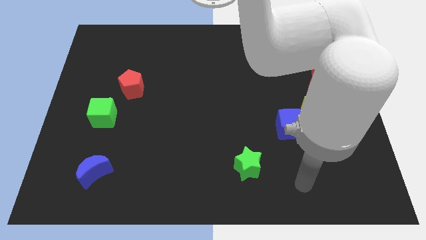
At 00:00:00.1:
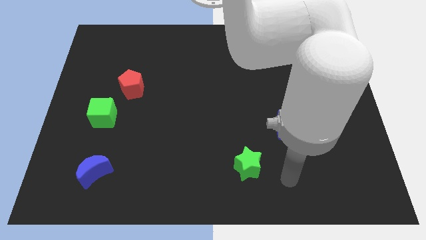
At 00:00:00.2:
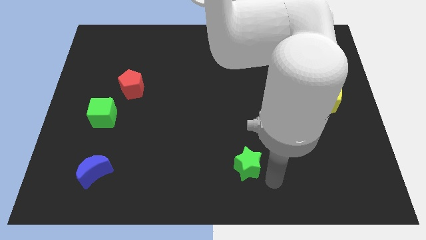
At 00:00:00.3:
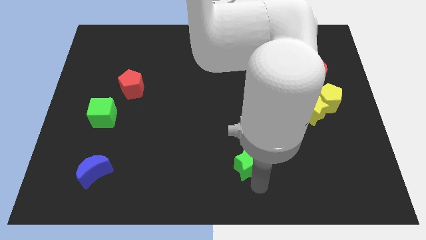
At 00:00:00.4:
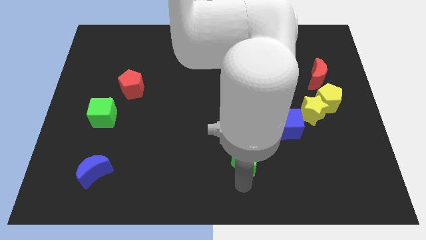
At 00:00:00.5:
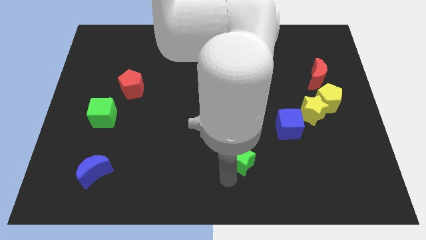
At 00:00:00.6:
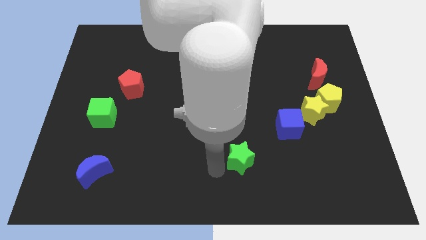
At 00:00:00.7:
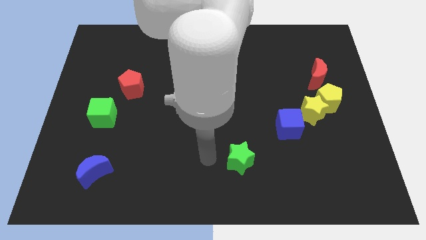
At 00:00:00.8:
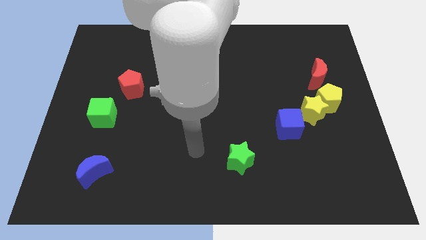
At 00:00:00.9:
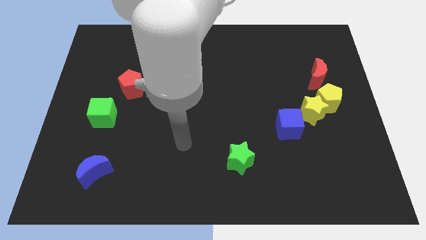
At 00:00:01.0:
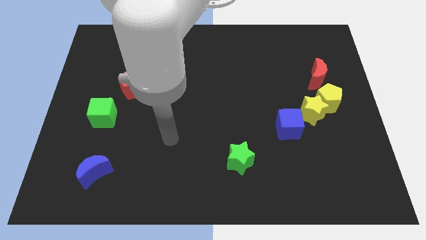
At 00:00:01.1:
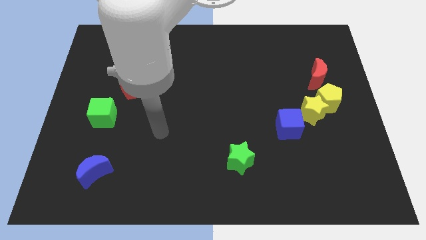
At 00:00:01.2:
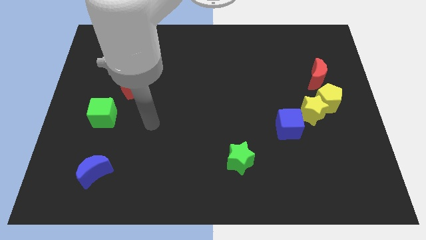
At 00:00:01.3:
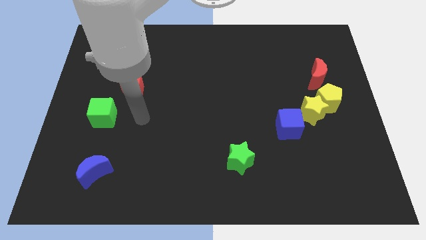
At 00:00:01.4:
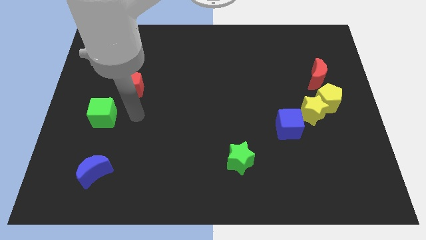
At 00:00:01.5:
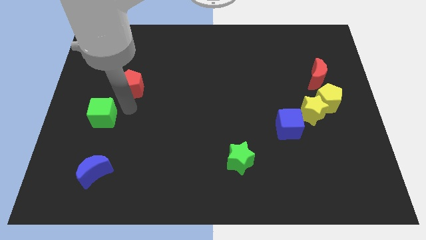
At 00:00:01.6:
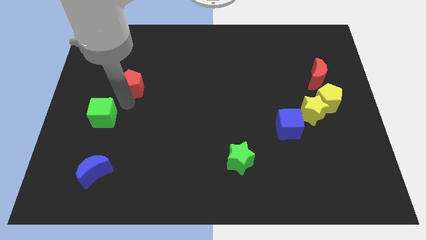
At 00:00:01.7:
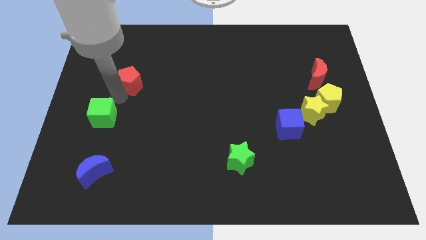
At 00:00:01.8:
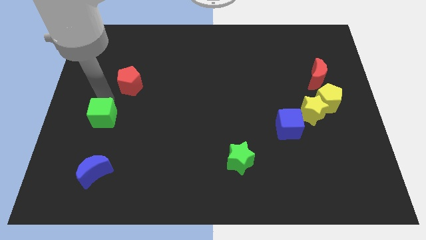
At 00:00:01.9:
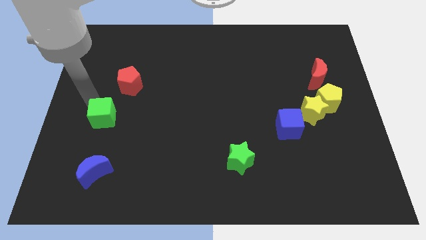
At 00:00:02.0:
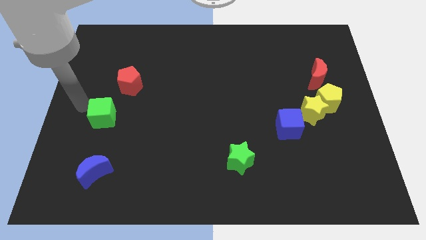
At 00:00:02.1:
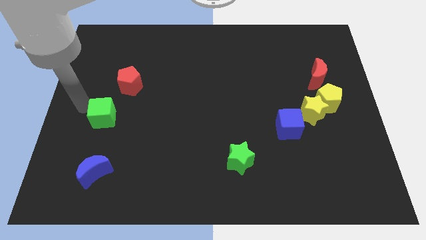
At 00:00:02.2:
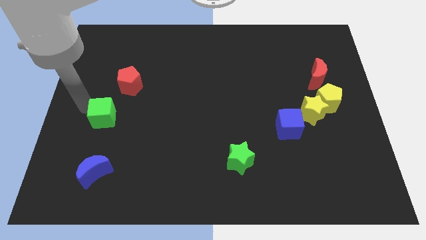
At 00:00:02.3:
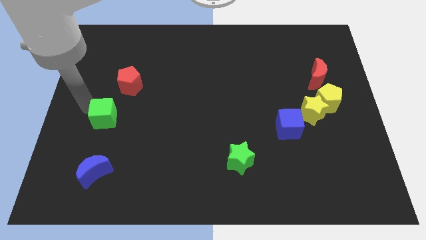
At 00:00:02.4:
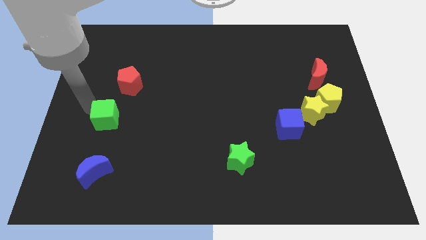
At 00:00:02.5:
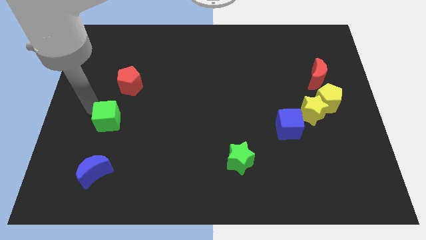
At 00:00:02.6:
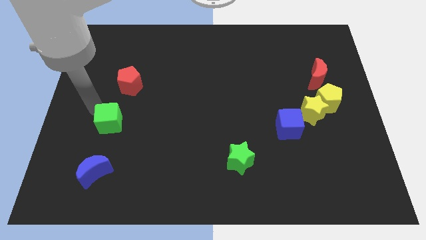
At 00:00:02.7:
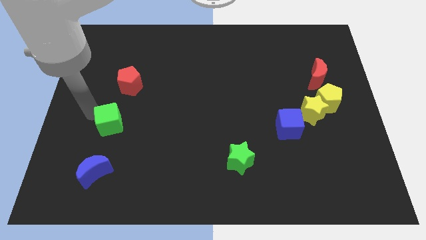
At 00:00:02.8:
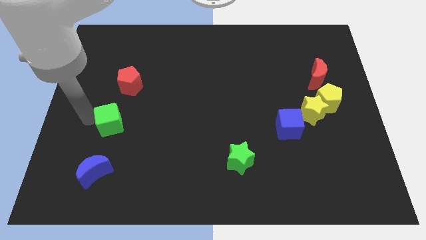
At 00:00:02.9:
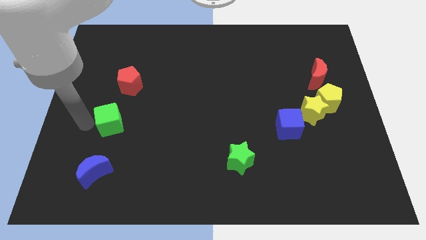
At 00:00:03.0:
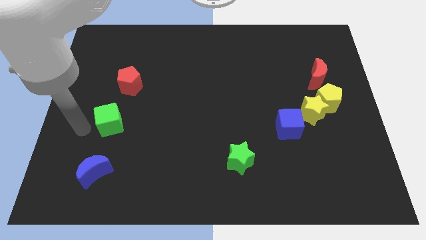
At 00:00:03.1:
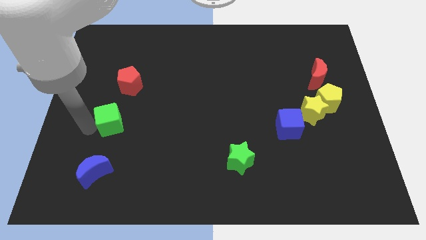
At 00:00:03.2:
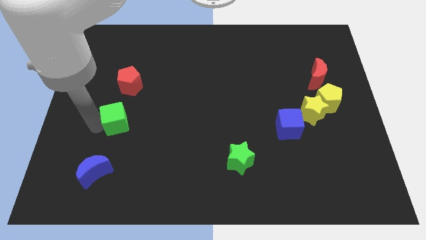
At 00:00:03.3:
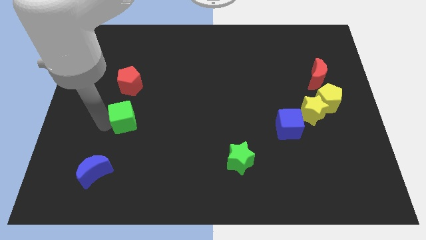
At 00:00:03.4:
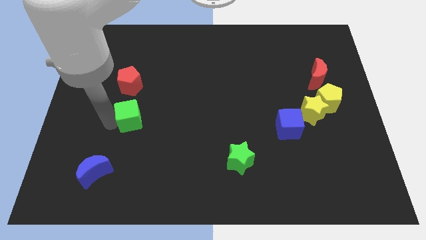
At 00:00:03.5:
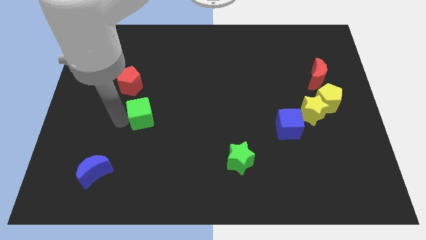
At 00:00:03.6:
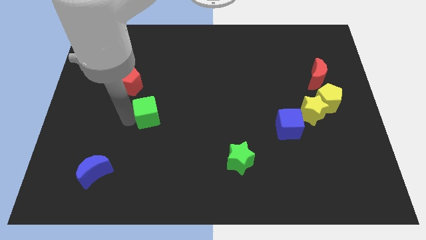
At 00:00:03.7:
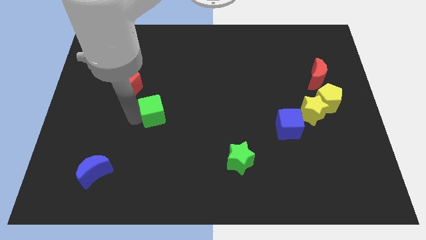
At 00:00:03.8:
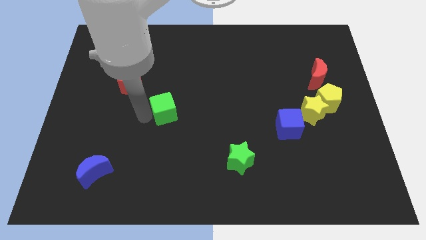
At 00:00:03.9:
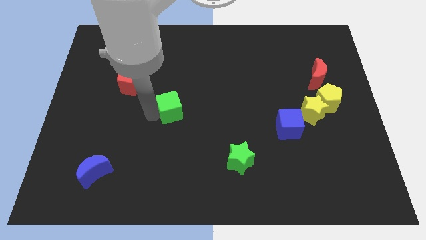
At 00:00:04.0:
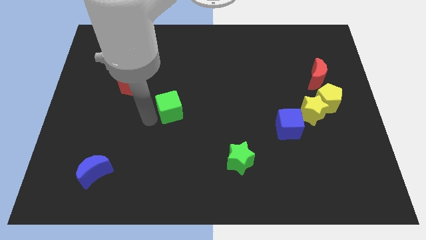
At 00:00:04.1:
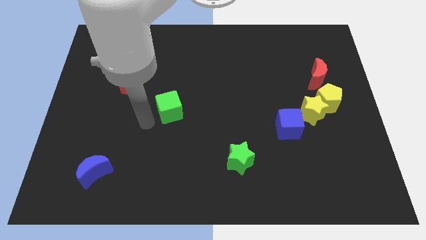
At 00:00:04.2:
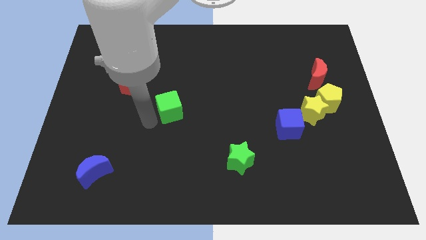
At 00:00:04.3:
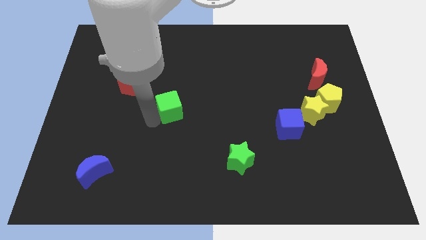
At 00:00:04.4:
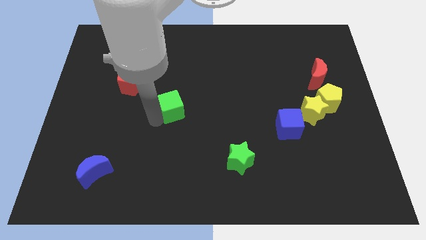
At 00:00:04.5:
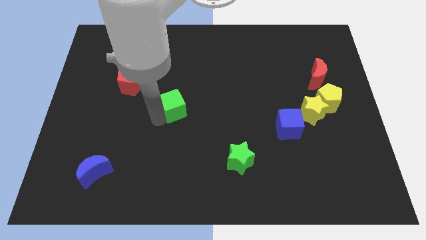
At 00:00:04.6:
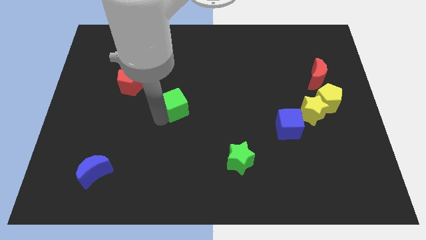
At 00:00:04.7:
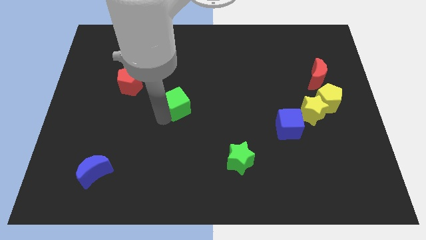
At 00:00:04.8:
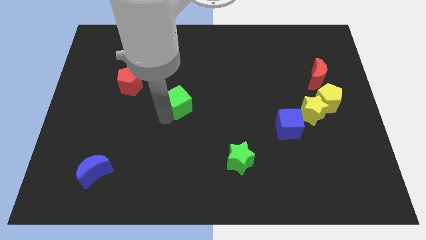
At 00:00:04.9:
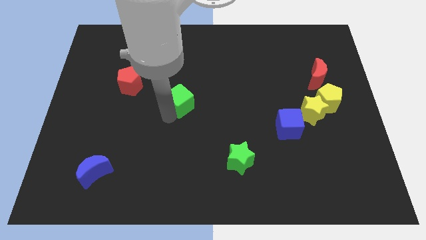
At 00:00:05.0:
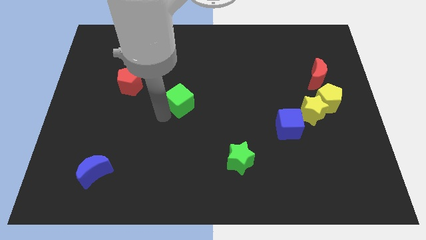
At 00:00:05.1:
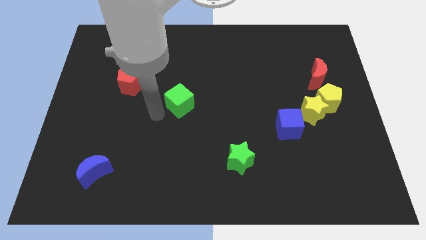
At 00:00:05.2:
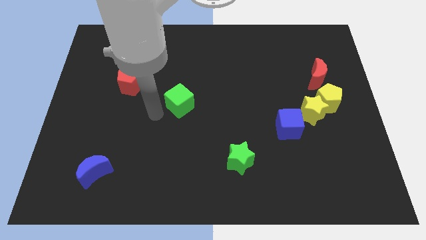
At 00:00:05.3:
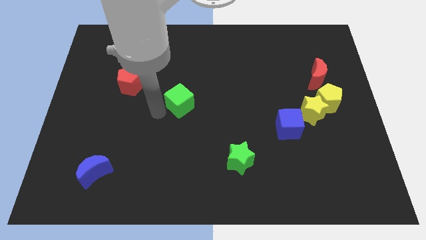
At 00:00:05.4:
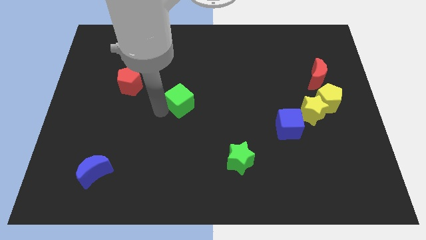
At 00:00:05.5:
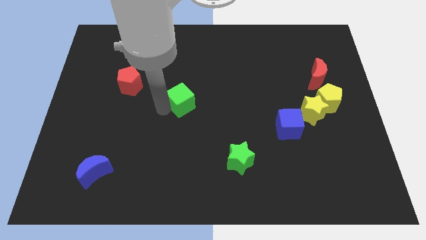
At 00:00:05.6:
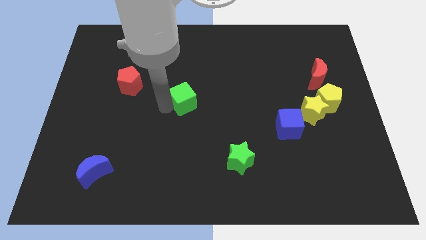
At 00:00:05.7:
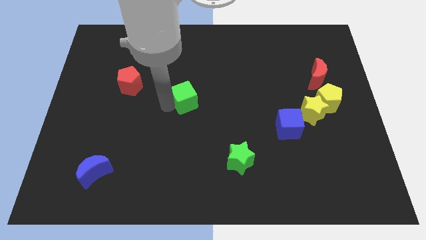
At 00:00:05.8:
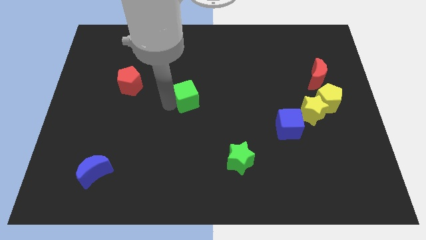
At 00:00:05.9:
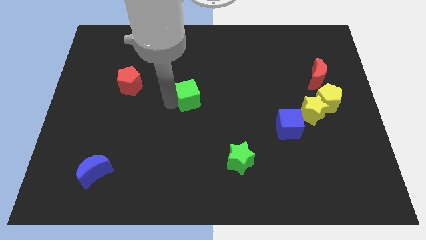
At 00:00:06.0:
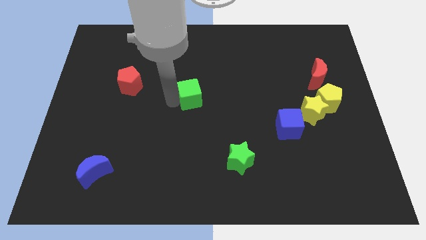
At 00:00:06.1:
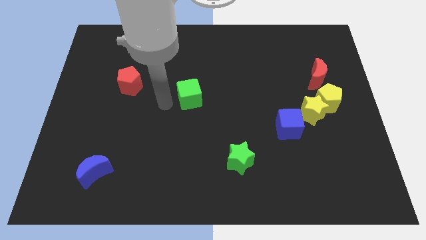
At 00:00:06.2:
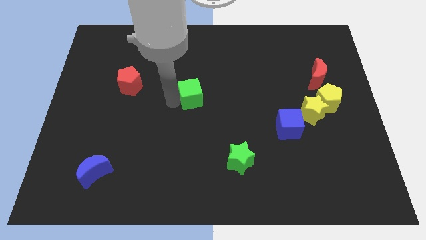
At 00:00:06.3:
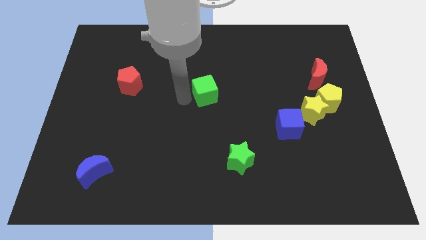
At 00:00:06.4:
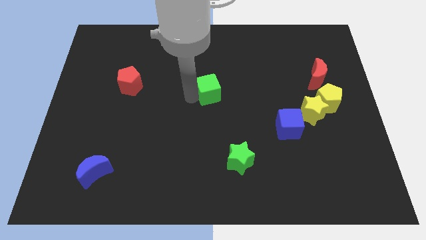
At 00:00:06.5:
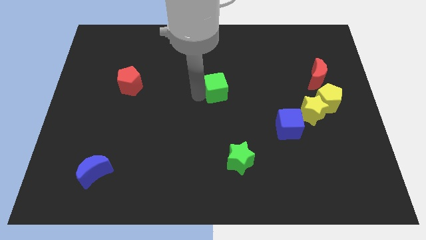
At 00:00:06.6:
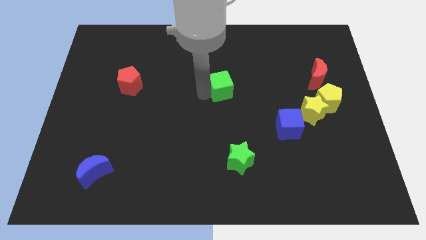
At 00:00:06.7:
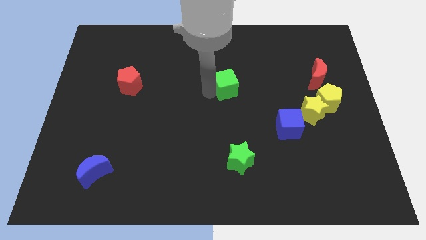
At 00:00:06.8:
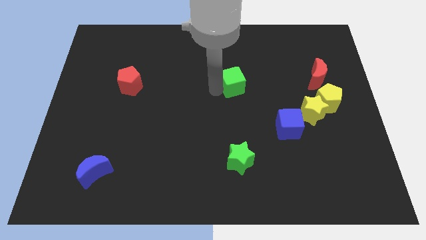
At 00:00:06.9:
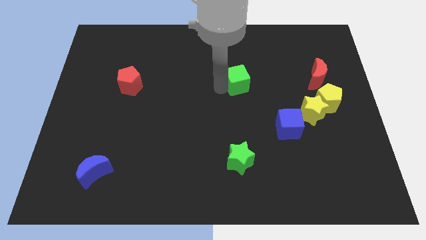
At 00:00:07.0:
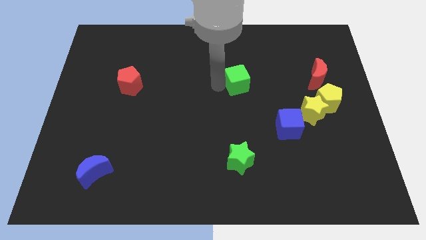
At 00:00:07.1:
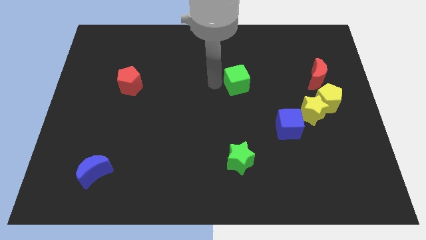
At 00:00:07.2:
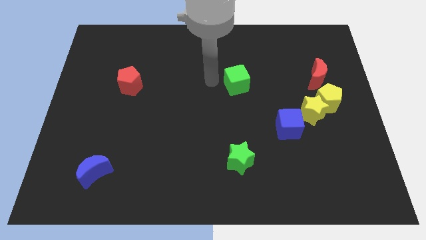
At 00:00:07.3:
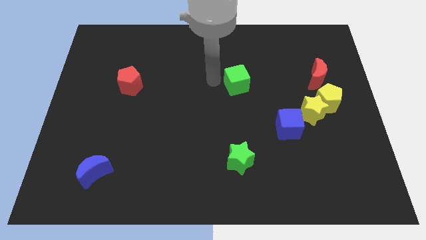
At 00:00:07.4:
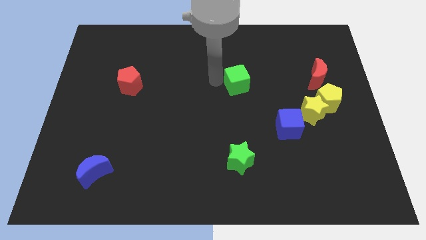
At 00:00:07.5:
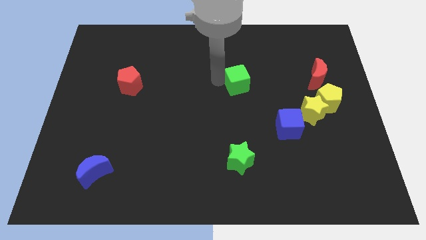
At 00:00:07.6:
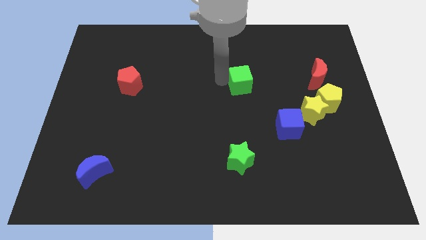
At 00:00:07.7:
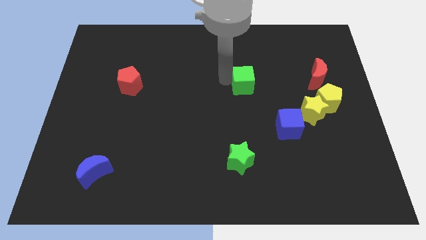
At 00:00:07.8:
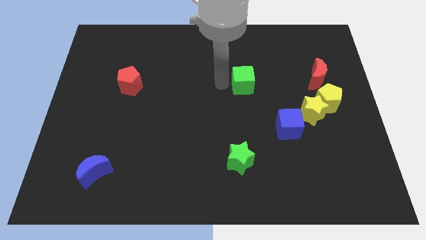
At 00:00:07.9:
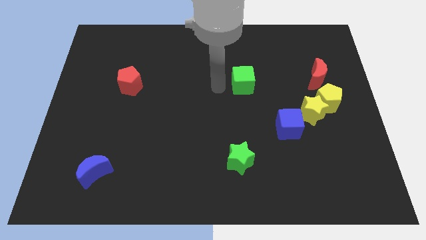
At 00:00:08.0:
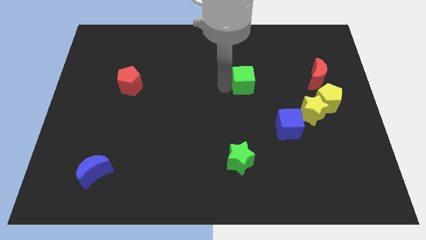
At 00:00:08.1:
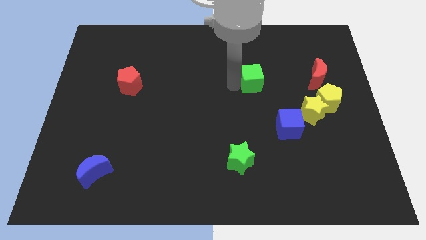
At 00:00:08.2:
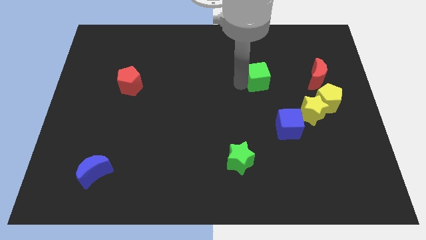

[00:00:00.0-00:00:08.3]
move the green cube just left of the red moon

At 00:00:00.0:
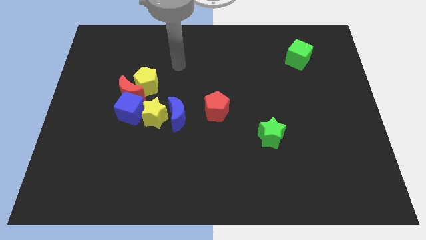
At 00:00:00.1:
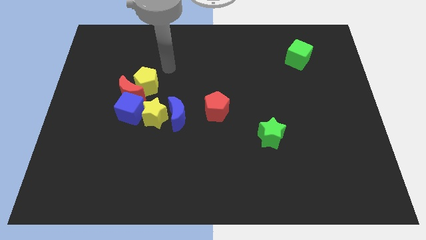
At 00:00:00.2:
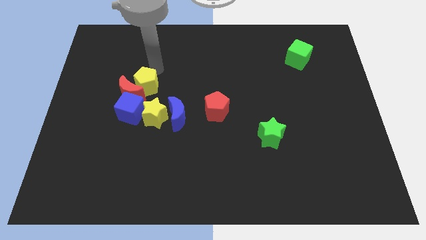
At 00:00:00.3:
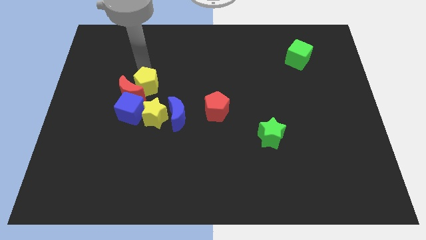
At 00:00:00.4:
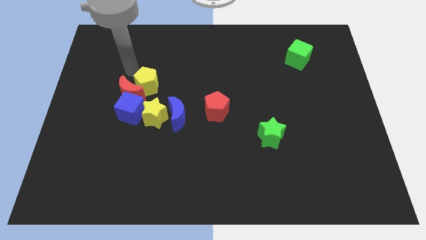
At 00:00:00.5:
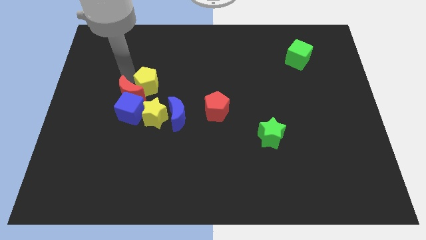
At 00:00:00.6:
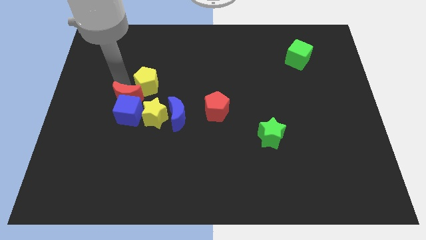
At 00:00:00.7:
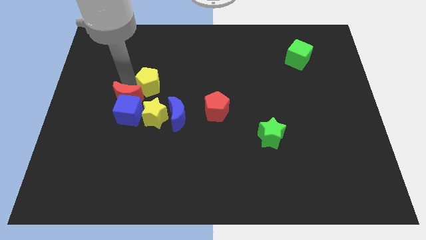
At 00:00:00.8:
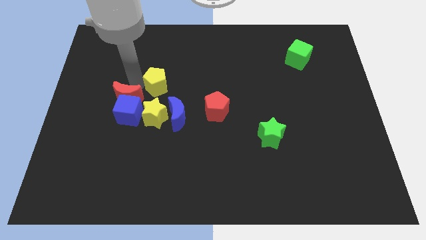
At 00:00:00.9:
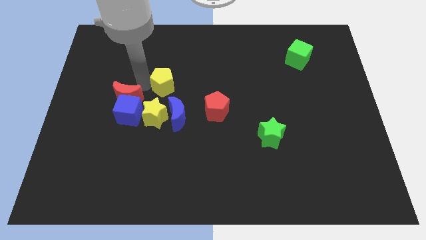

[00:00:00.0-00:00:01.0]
move the yellow pentagon above the blue moon
